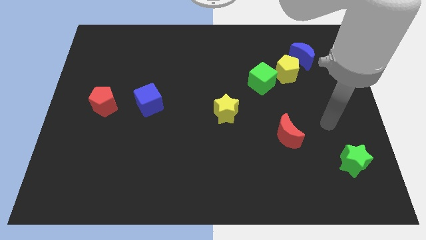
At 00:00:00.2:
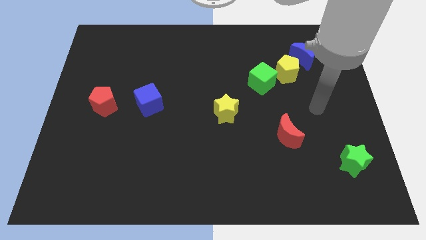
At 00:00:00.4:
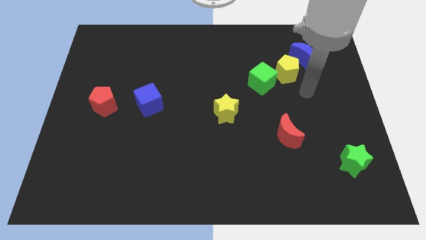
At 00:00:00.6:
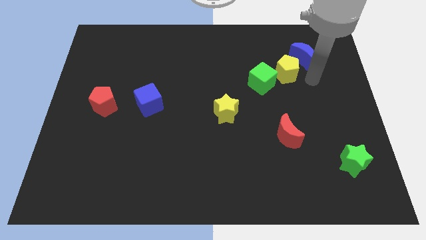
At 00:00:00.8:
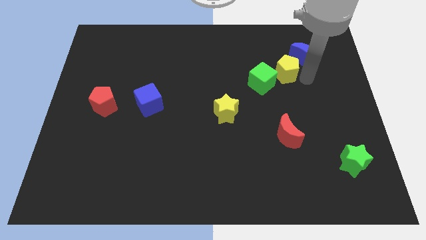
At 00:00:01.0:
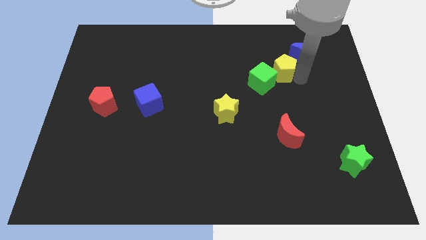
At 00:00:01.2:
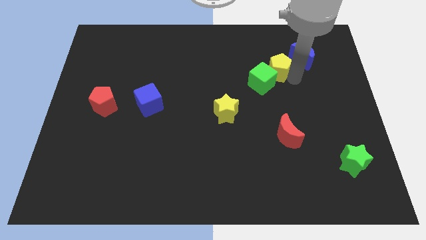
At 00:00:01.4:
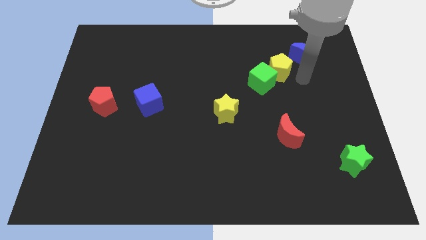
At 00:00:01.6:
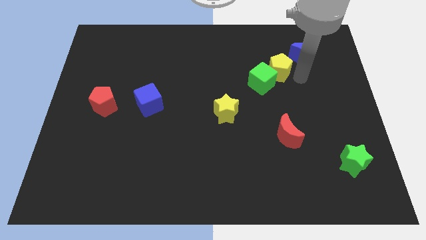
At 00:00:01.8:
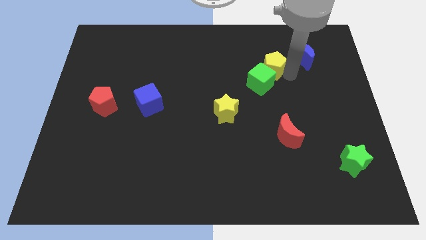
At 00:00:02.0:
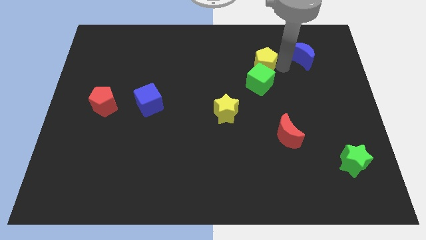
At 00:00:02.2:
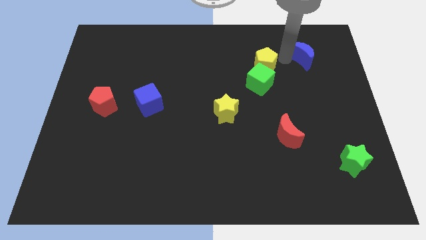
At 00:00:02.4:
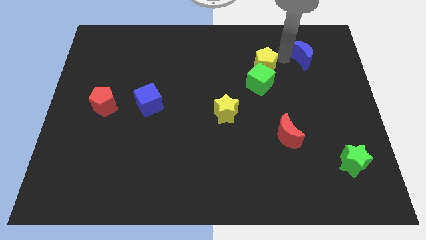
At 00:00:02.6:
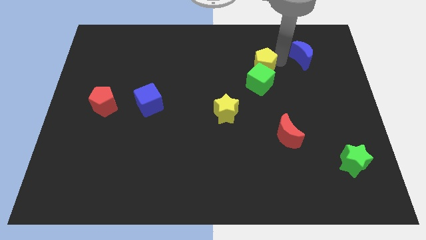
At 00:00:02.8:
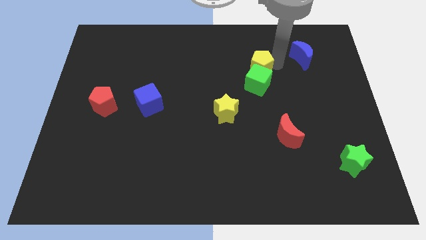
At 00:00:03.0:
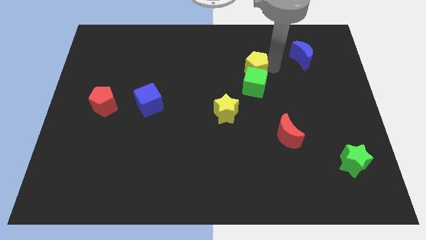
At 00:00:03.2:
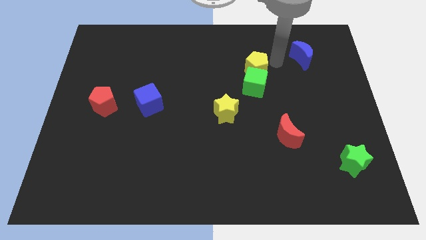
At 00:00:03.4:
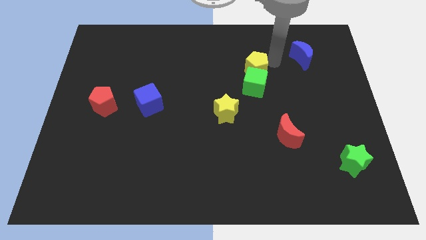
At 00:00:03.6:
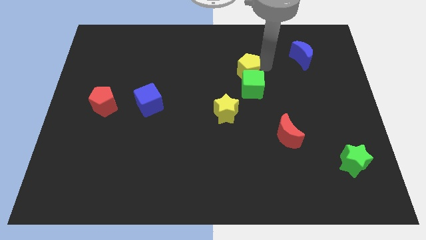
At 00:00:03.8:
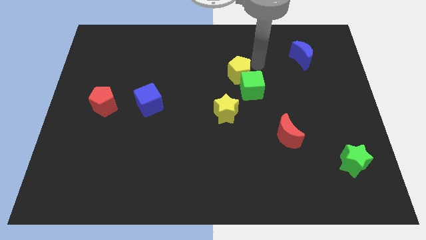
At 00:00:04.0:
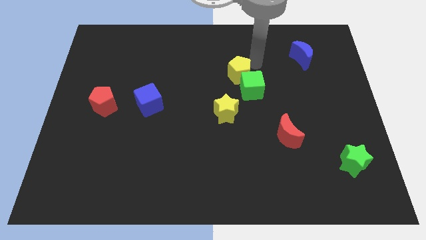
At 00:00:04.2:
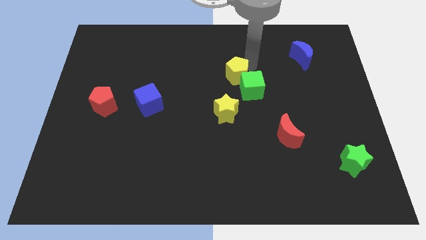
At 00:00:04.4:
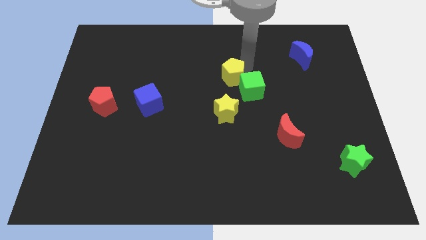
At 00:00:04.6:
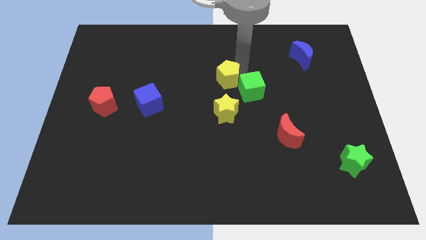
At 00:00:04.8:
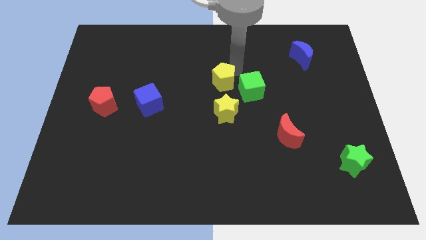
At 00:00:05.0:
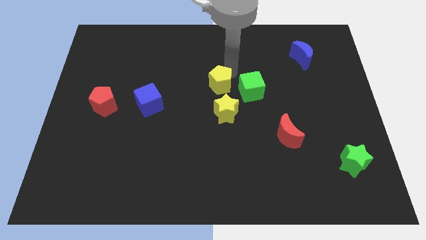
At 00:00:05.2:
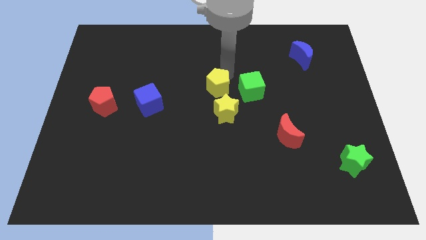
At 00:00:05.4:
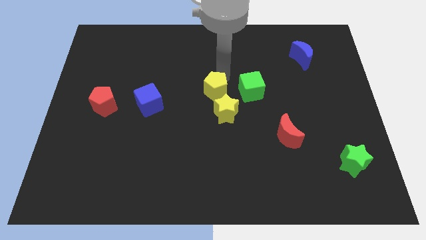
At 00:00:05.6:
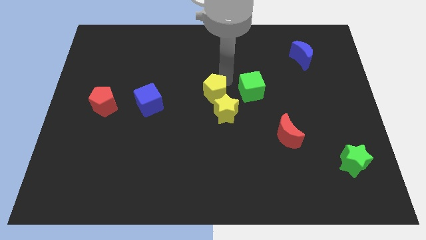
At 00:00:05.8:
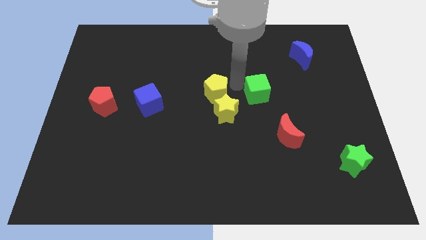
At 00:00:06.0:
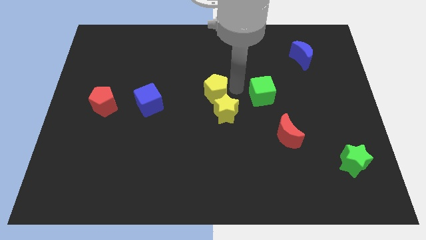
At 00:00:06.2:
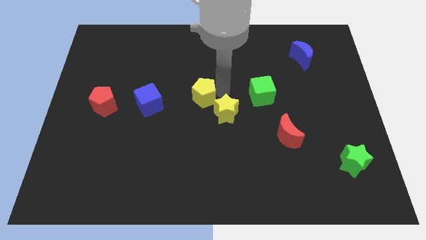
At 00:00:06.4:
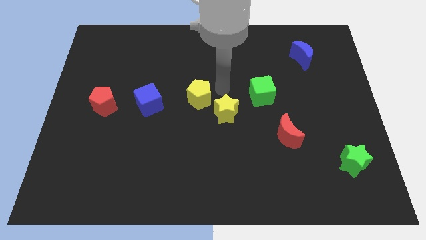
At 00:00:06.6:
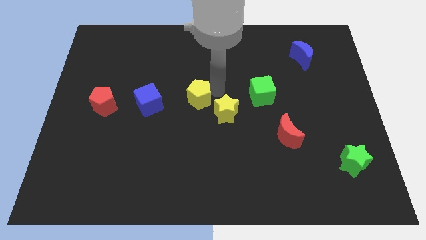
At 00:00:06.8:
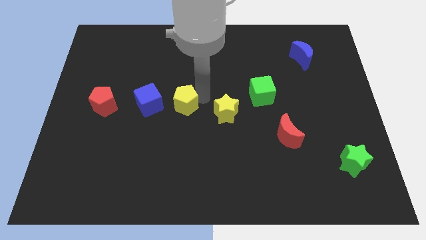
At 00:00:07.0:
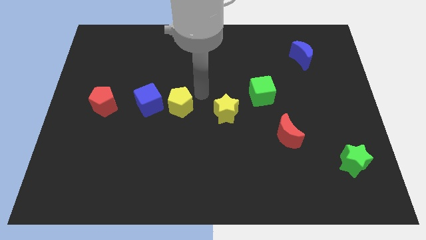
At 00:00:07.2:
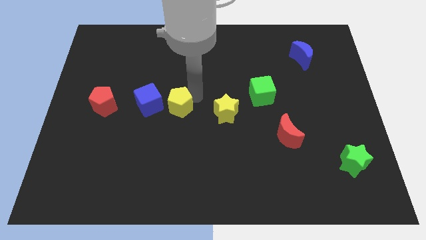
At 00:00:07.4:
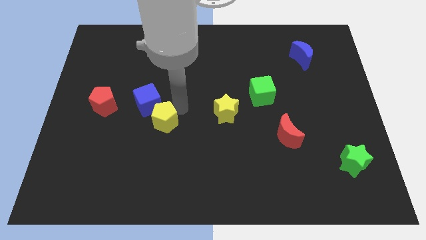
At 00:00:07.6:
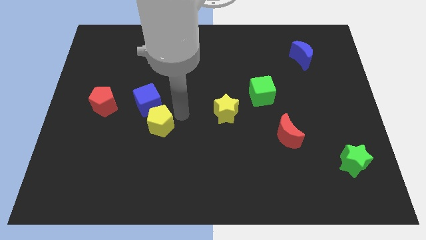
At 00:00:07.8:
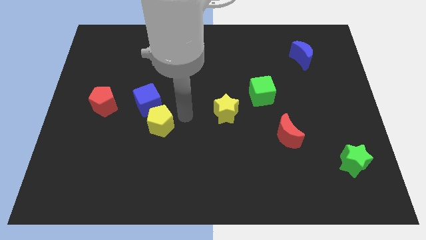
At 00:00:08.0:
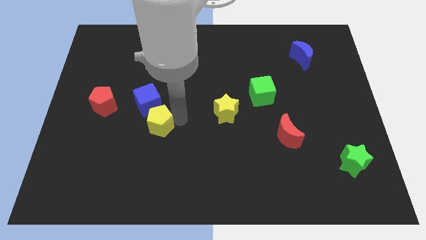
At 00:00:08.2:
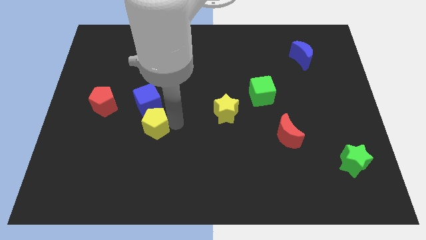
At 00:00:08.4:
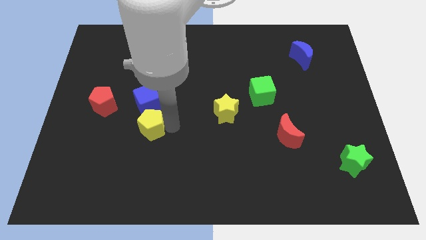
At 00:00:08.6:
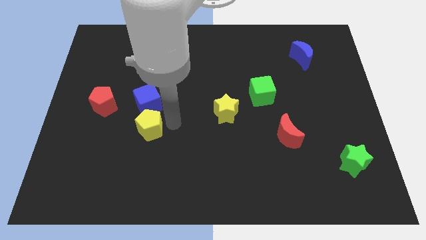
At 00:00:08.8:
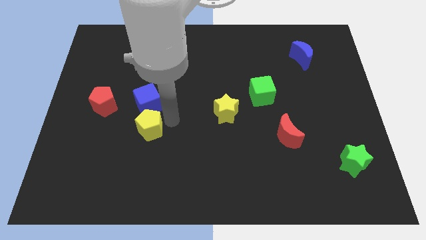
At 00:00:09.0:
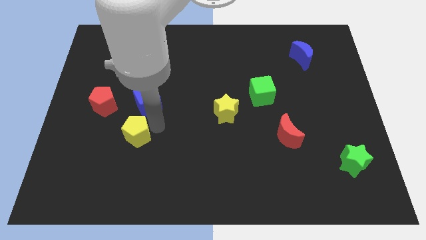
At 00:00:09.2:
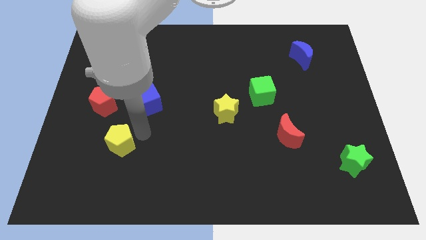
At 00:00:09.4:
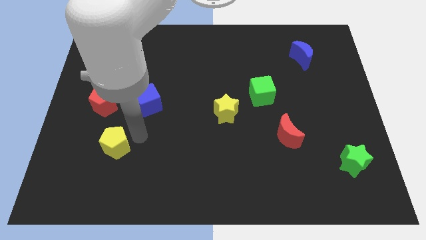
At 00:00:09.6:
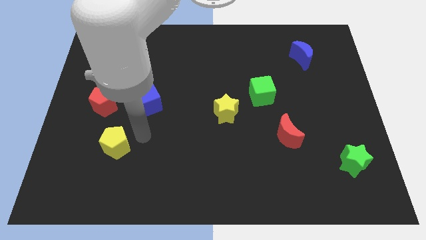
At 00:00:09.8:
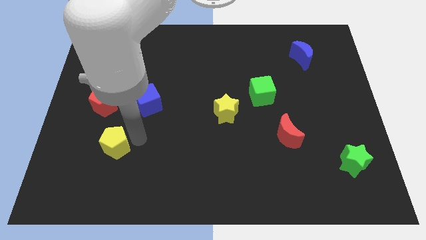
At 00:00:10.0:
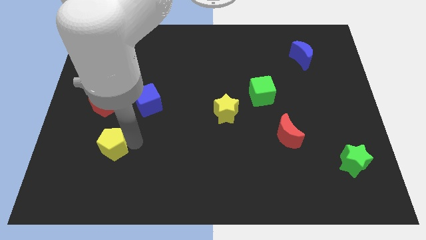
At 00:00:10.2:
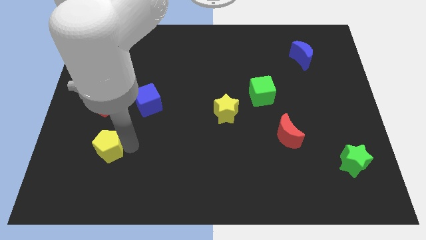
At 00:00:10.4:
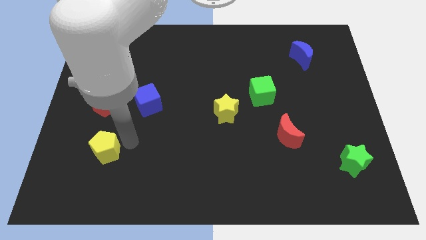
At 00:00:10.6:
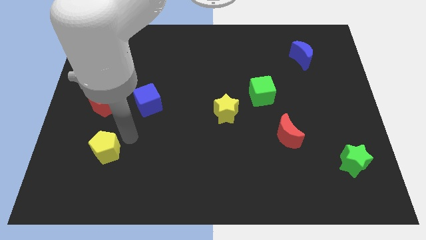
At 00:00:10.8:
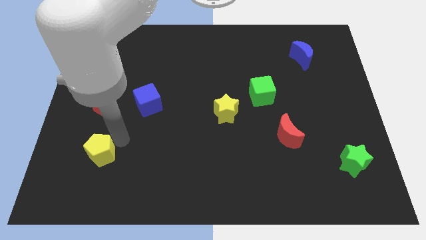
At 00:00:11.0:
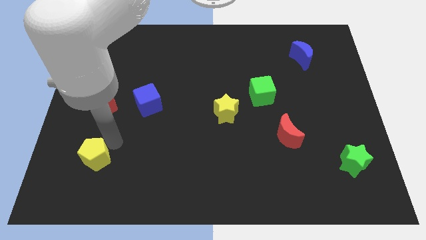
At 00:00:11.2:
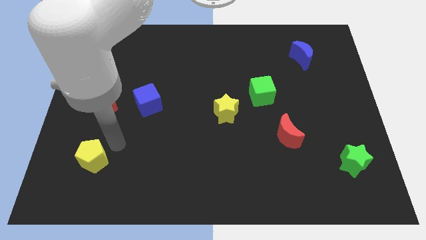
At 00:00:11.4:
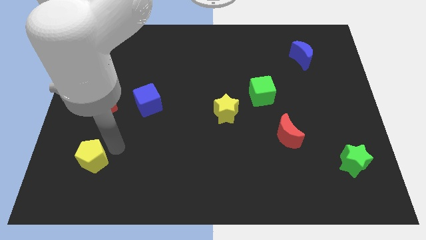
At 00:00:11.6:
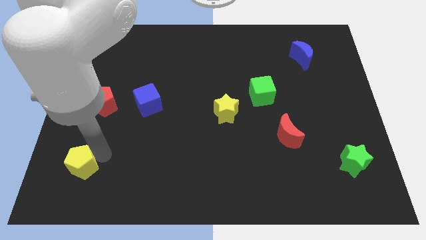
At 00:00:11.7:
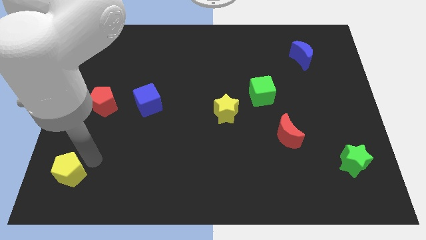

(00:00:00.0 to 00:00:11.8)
slide the yellow pentagon to the lower left corner

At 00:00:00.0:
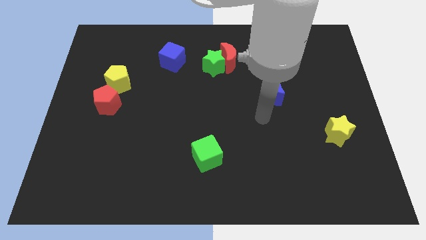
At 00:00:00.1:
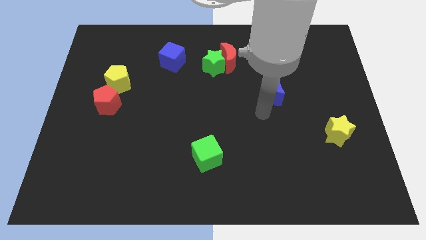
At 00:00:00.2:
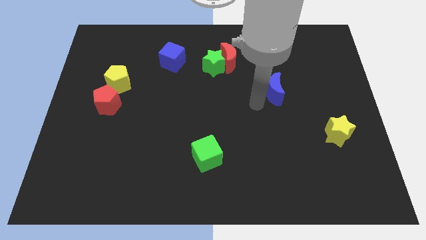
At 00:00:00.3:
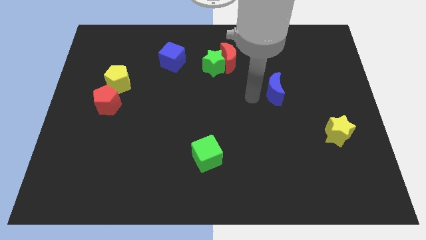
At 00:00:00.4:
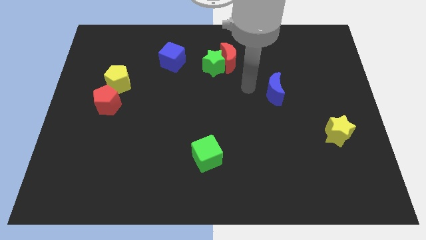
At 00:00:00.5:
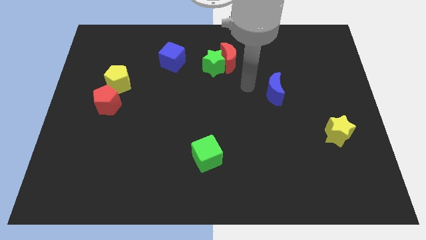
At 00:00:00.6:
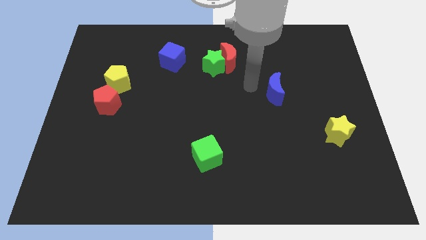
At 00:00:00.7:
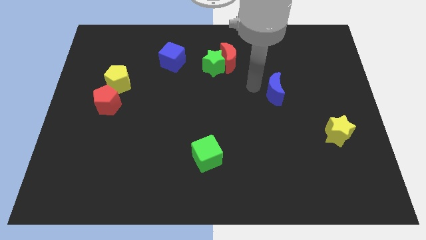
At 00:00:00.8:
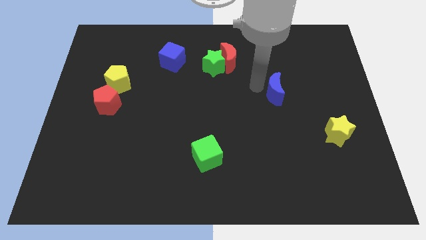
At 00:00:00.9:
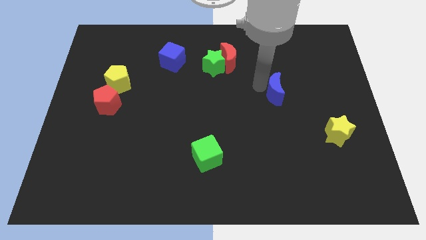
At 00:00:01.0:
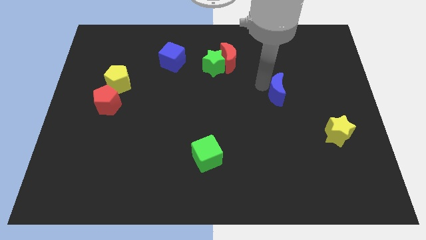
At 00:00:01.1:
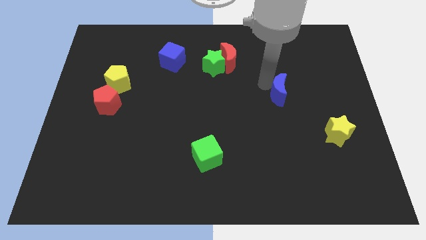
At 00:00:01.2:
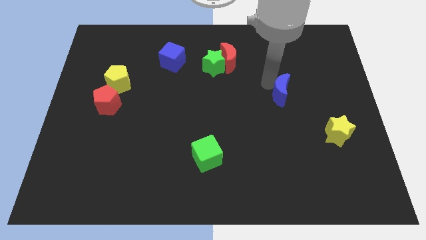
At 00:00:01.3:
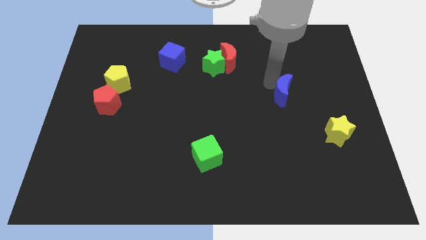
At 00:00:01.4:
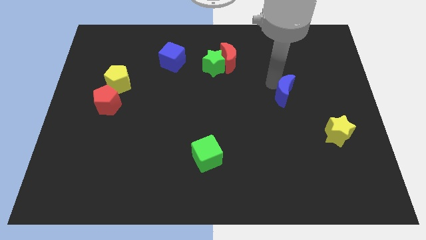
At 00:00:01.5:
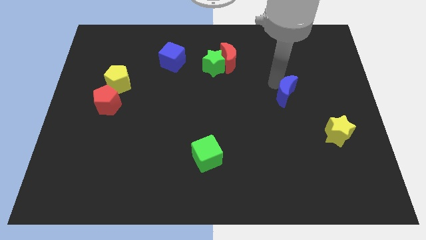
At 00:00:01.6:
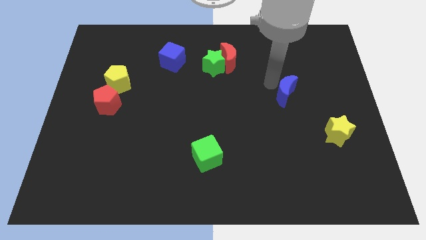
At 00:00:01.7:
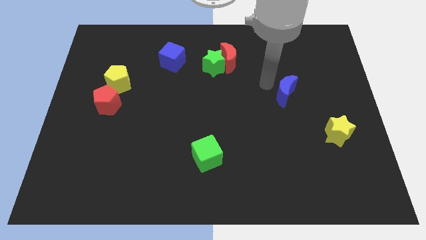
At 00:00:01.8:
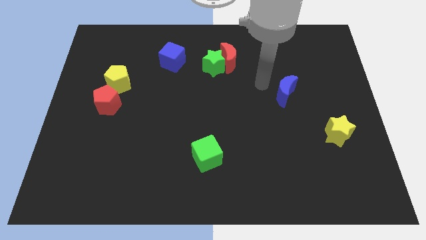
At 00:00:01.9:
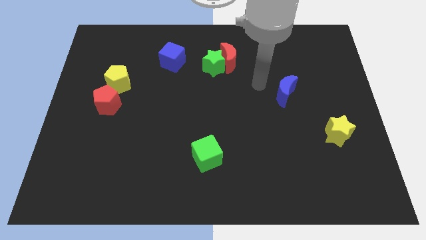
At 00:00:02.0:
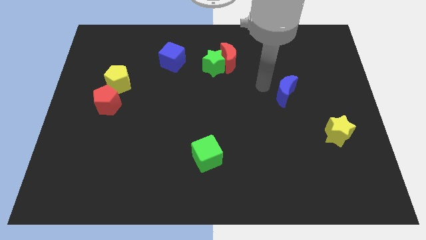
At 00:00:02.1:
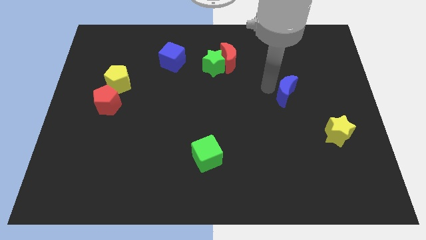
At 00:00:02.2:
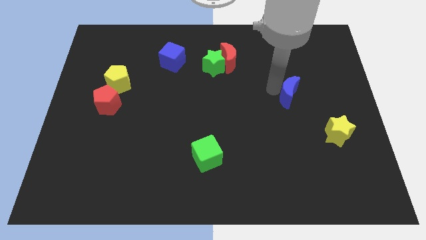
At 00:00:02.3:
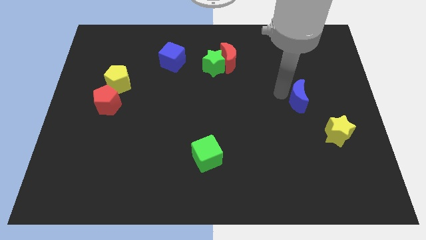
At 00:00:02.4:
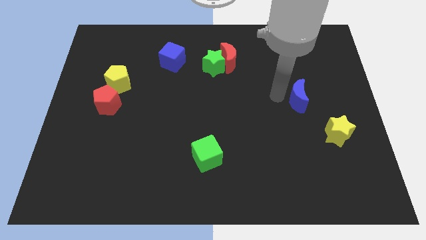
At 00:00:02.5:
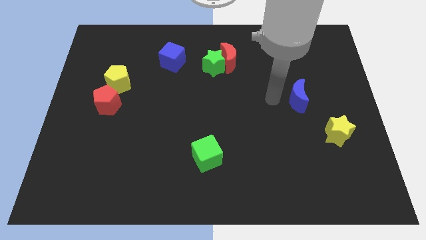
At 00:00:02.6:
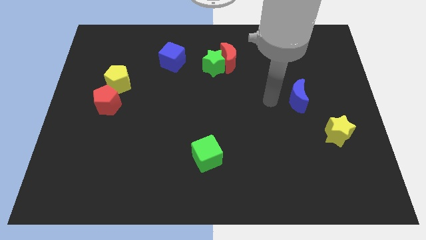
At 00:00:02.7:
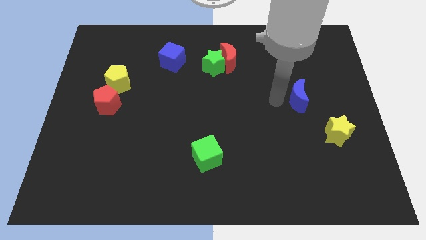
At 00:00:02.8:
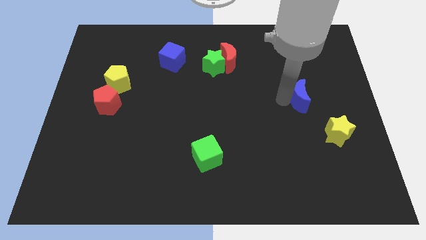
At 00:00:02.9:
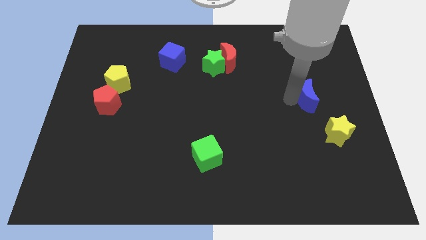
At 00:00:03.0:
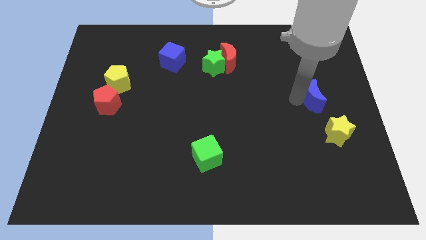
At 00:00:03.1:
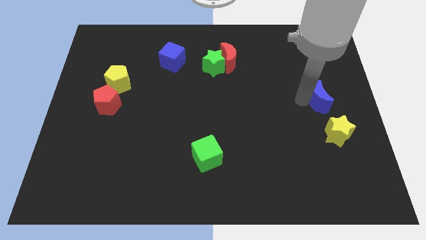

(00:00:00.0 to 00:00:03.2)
push the blue moon to the right side
